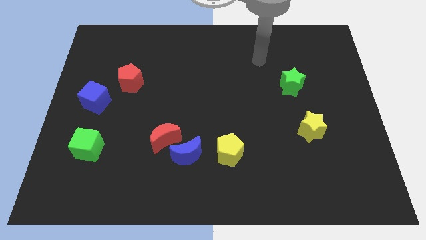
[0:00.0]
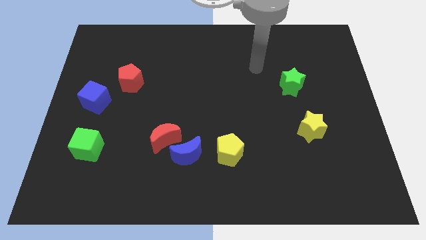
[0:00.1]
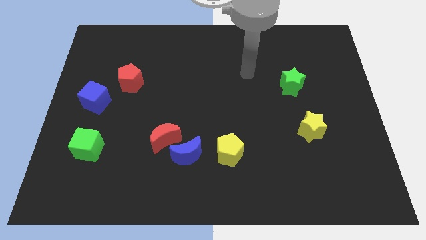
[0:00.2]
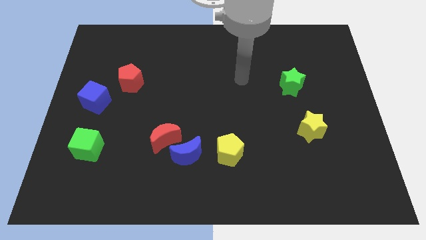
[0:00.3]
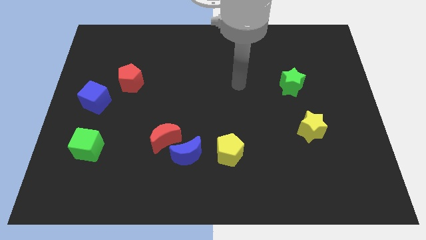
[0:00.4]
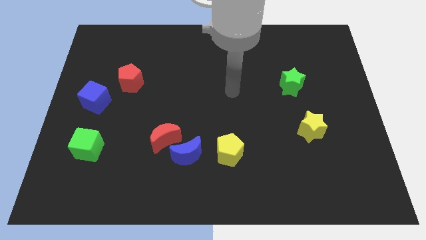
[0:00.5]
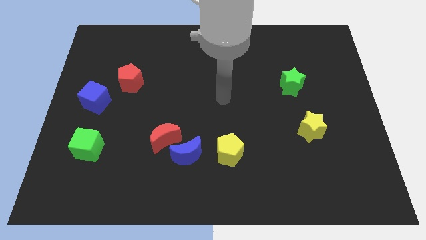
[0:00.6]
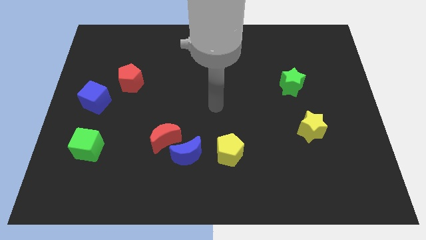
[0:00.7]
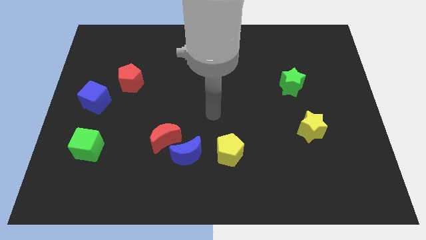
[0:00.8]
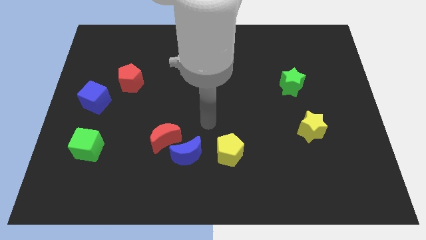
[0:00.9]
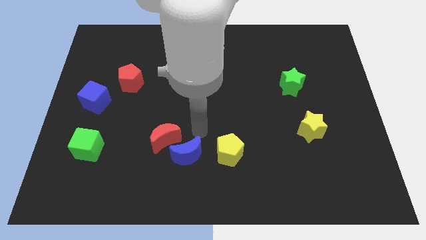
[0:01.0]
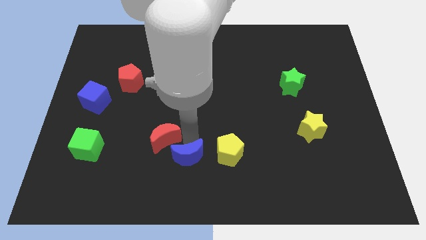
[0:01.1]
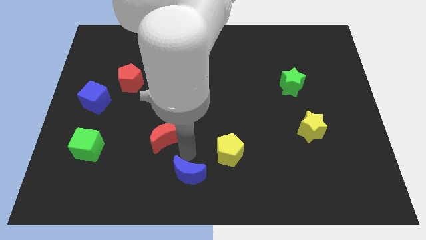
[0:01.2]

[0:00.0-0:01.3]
move the red moon away from the blue moon

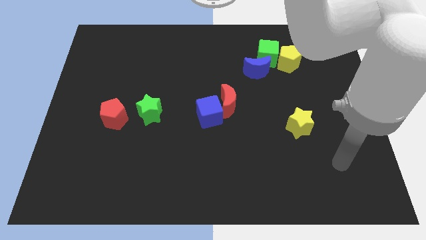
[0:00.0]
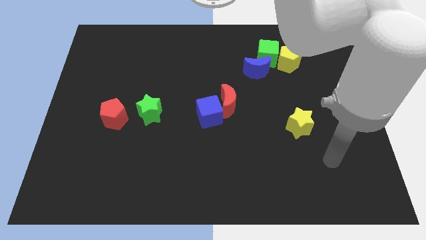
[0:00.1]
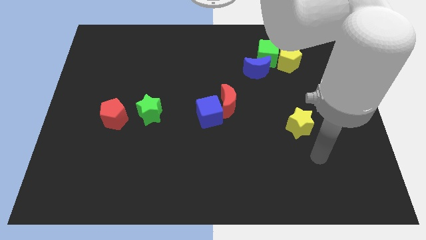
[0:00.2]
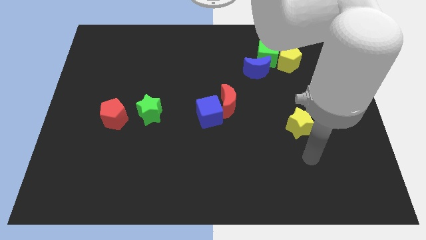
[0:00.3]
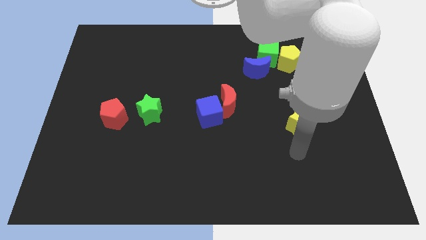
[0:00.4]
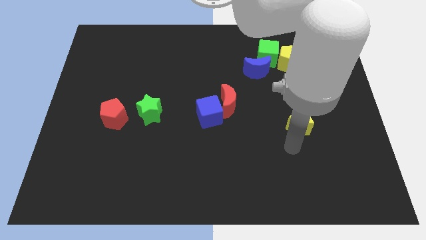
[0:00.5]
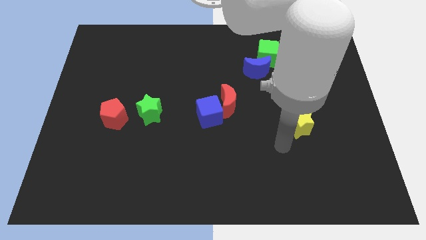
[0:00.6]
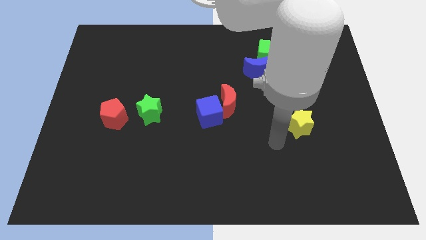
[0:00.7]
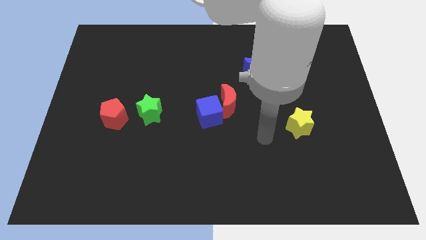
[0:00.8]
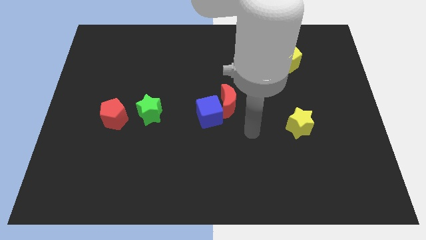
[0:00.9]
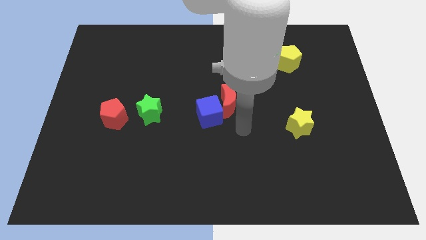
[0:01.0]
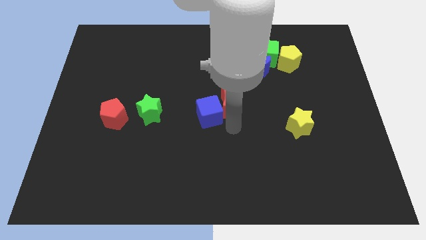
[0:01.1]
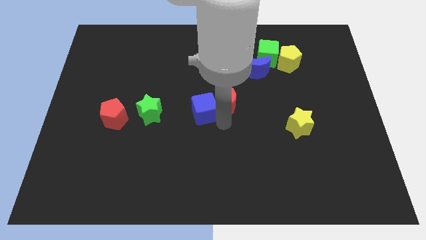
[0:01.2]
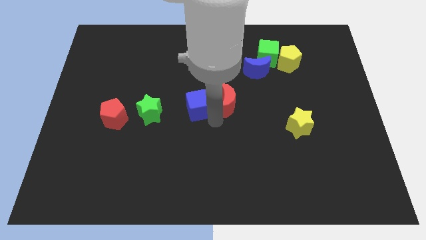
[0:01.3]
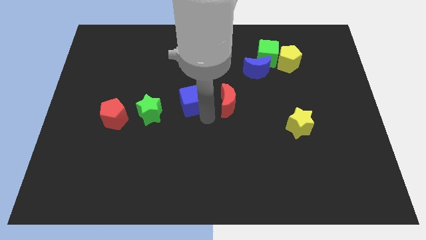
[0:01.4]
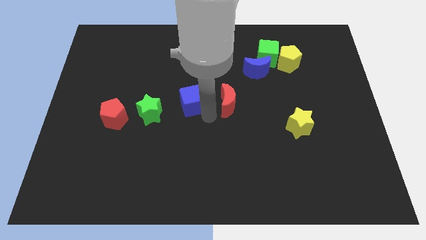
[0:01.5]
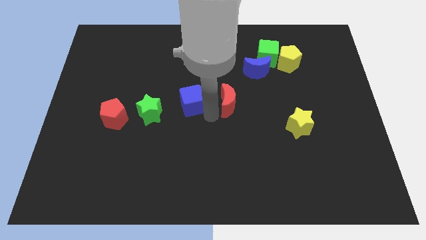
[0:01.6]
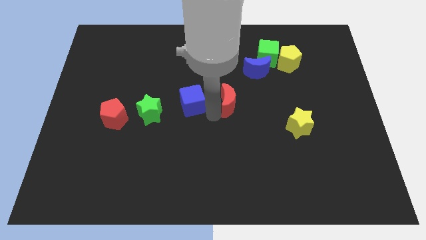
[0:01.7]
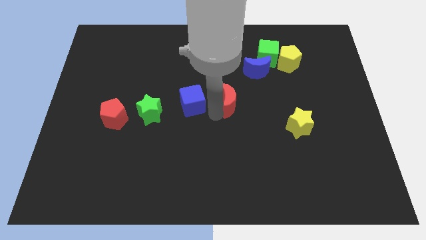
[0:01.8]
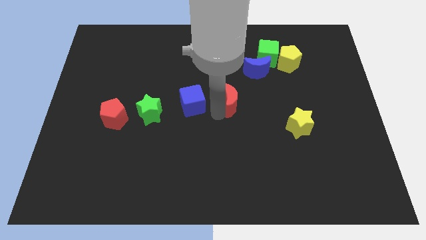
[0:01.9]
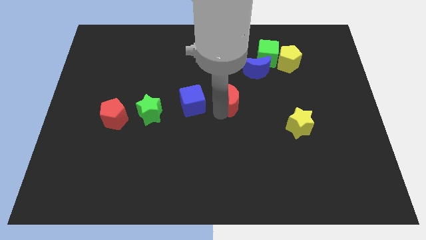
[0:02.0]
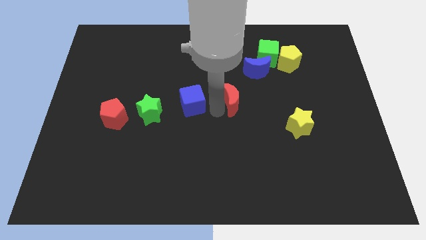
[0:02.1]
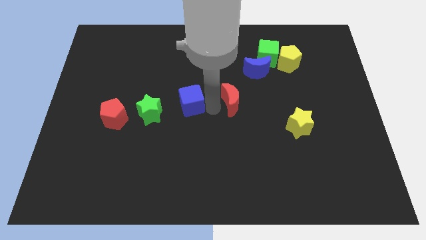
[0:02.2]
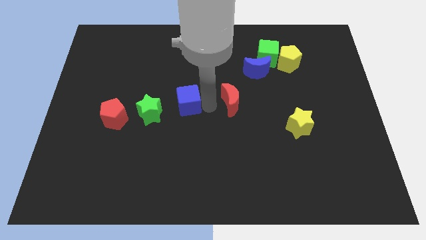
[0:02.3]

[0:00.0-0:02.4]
move the red moon away from the blue cube

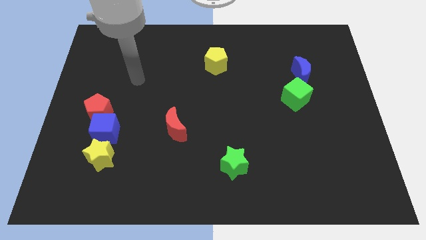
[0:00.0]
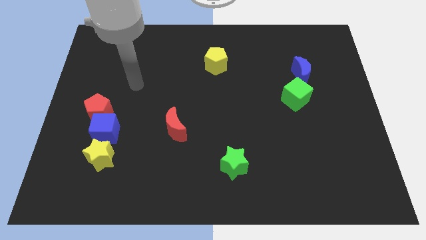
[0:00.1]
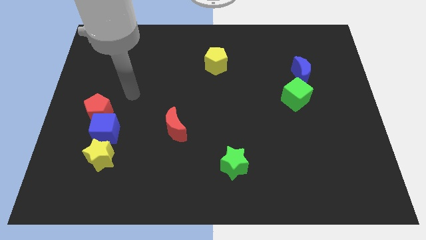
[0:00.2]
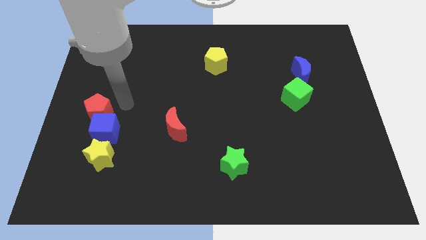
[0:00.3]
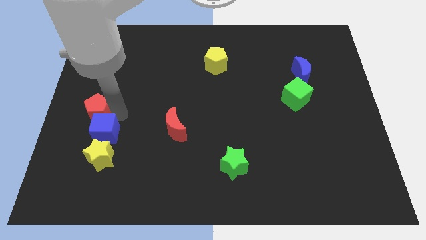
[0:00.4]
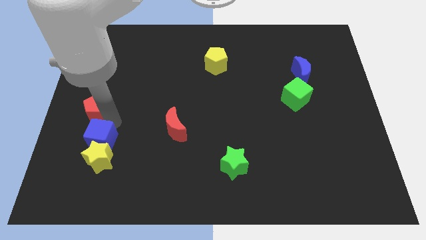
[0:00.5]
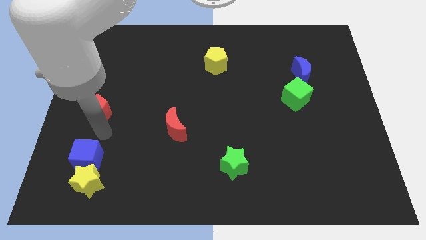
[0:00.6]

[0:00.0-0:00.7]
separate the red pentagon from the blue cube

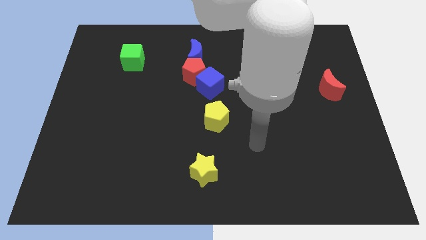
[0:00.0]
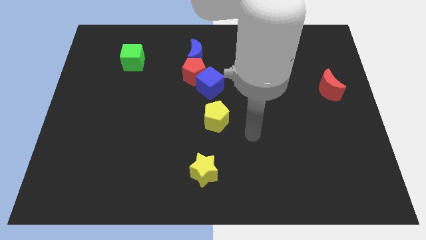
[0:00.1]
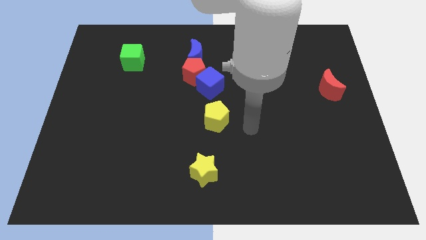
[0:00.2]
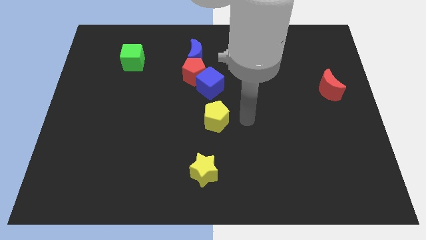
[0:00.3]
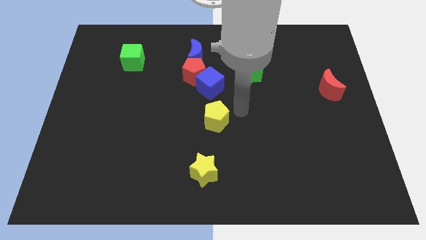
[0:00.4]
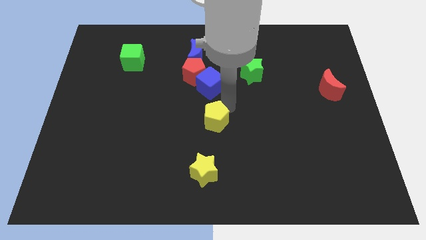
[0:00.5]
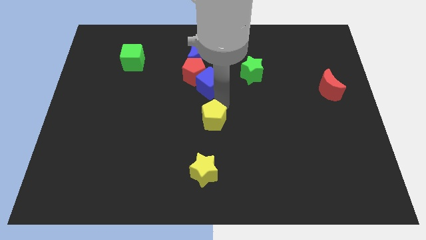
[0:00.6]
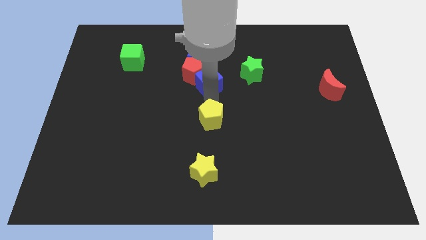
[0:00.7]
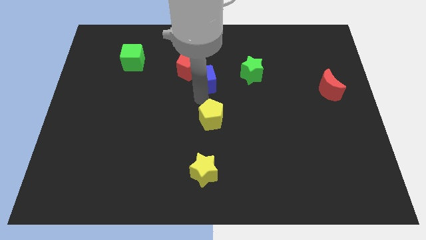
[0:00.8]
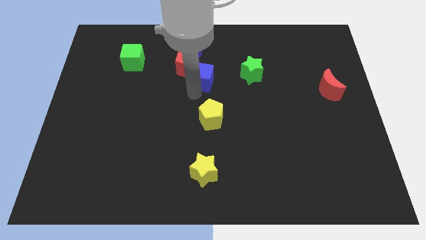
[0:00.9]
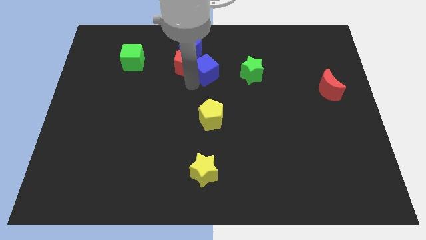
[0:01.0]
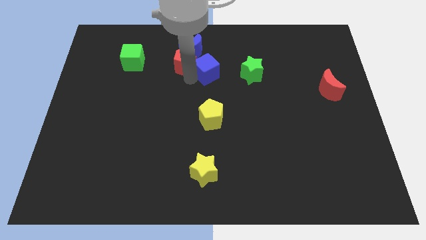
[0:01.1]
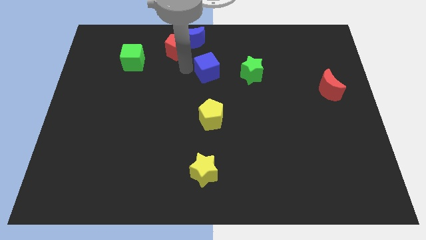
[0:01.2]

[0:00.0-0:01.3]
move the blue cube away from the red pentagon

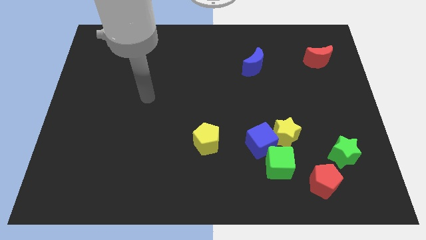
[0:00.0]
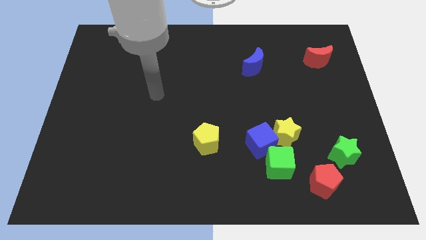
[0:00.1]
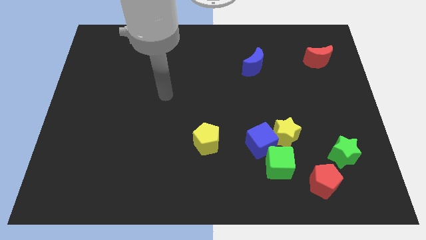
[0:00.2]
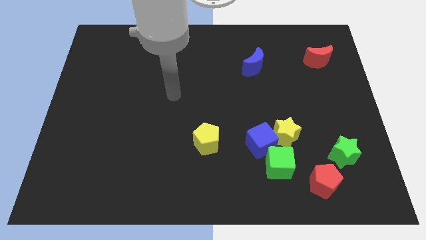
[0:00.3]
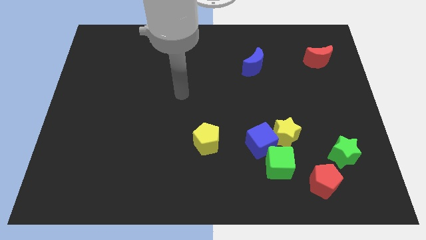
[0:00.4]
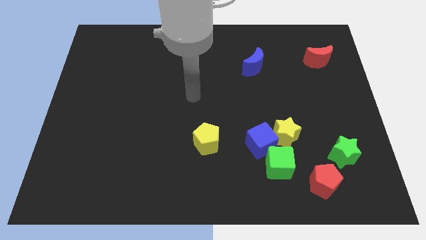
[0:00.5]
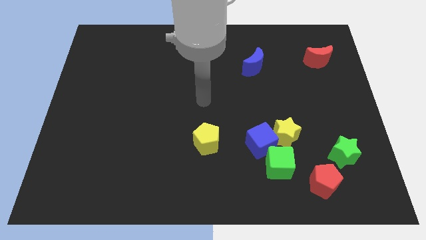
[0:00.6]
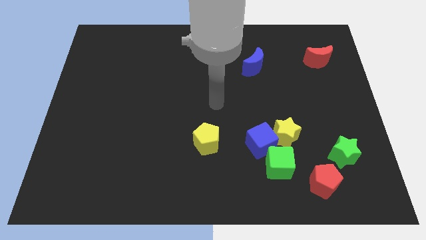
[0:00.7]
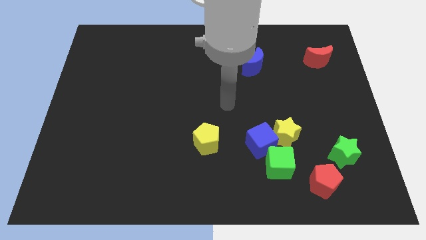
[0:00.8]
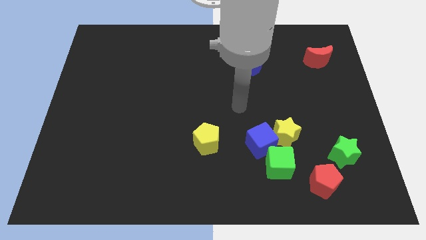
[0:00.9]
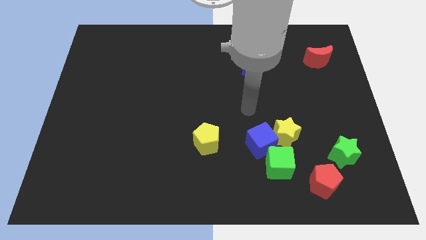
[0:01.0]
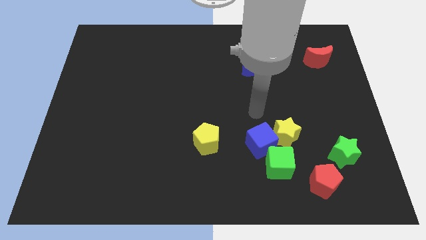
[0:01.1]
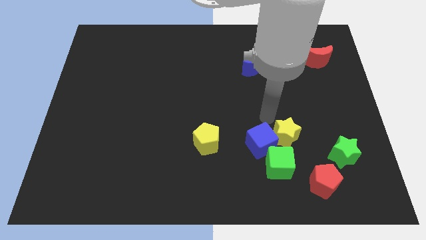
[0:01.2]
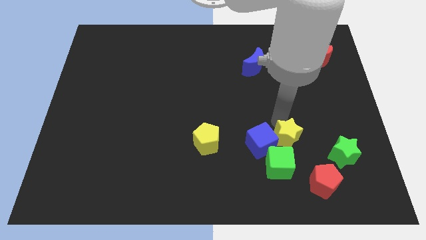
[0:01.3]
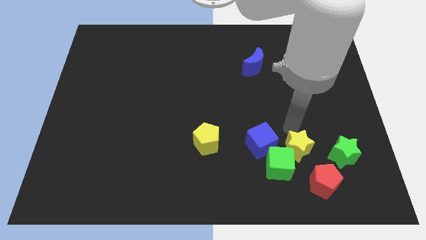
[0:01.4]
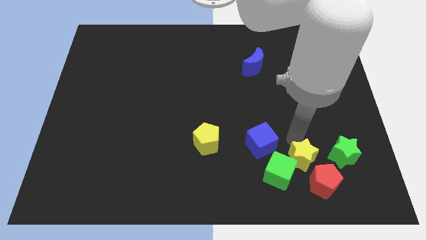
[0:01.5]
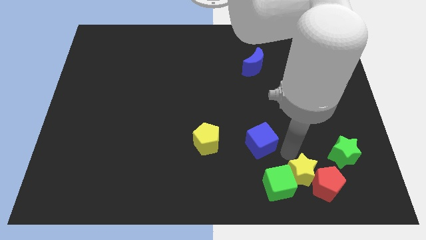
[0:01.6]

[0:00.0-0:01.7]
separate the blue cube from the yellow star and green cube

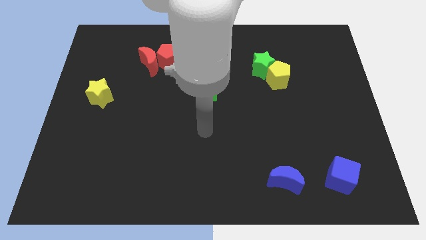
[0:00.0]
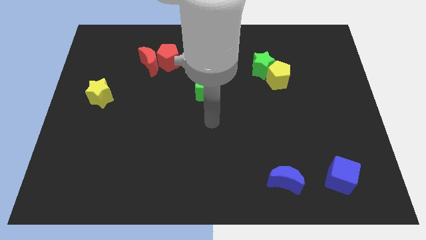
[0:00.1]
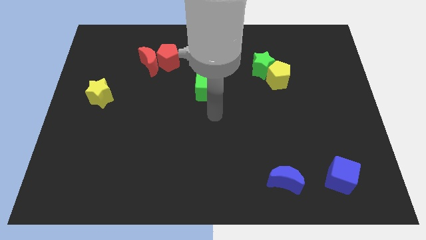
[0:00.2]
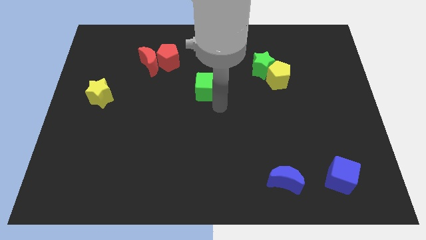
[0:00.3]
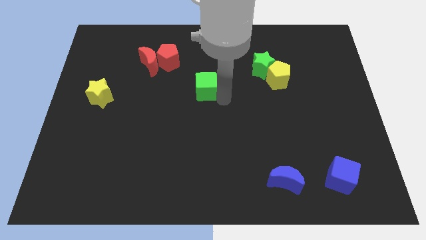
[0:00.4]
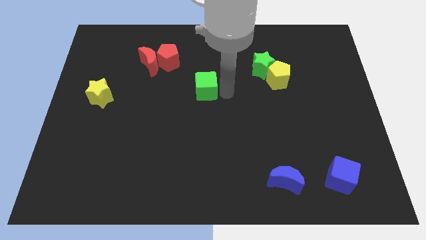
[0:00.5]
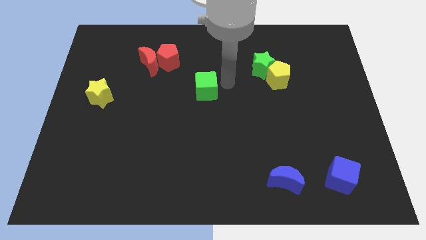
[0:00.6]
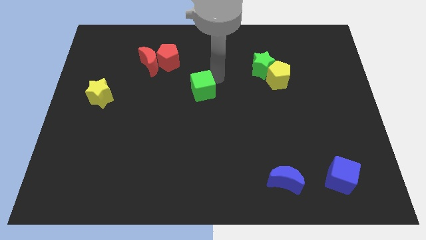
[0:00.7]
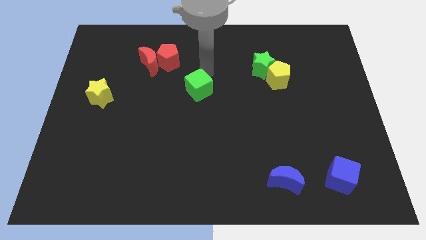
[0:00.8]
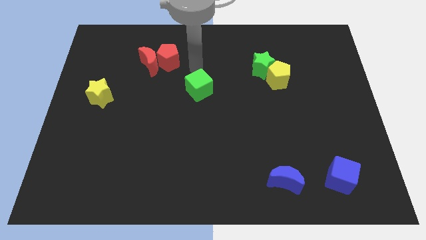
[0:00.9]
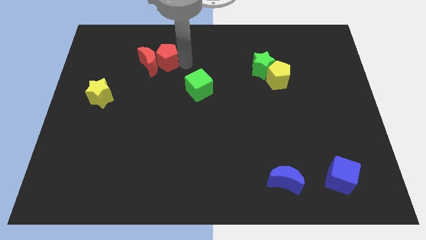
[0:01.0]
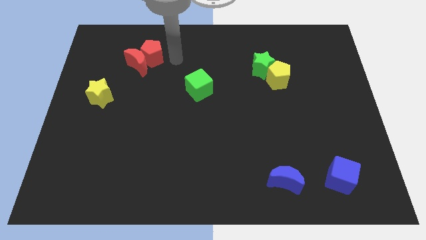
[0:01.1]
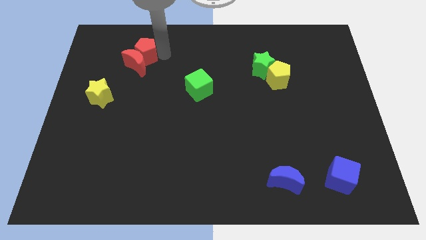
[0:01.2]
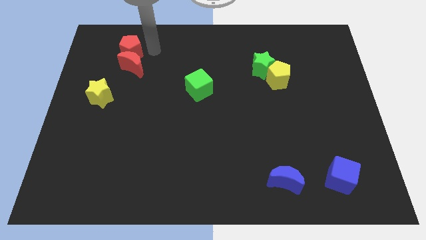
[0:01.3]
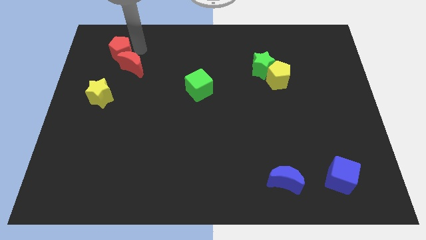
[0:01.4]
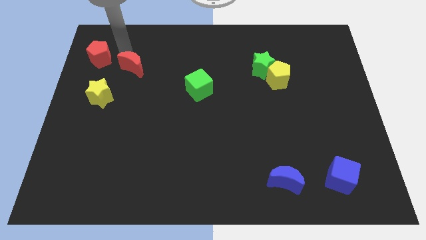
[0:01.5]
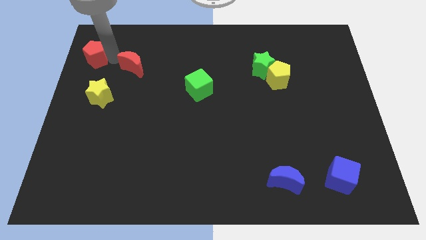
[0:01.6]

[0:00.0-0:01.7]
separate the red moon from the red pentagon

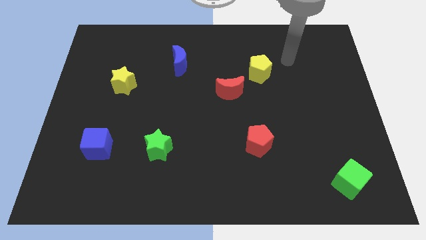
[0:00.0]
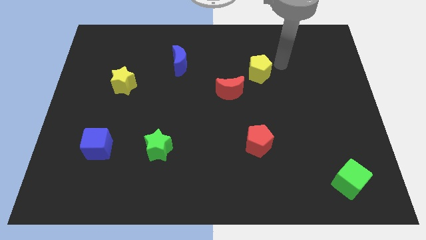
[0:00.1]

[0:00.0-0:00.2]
move the red moon away from the yellow pentagon
